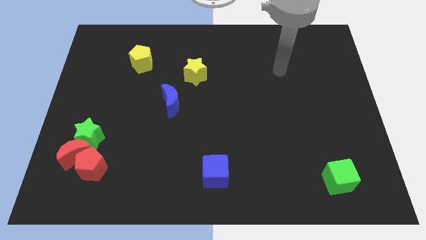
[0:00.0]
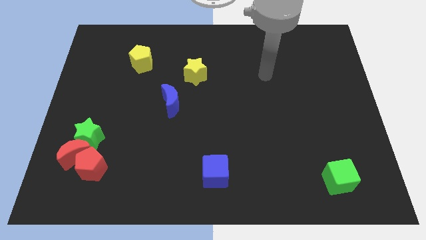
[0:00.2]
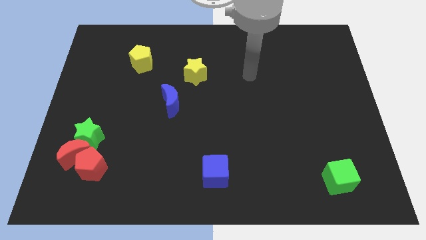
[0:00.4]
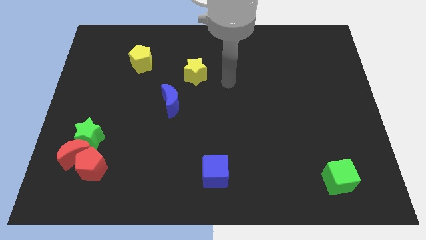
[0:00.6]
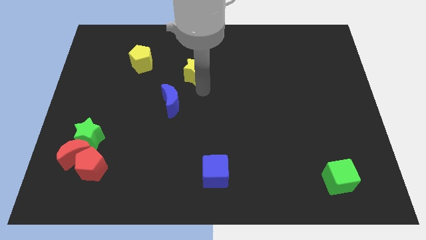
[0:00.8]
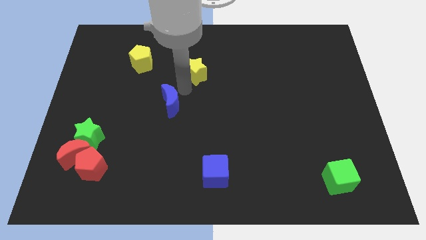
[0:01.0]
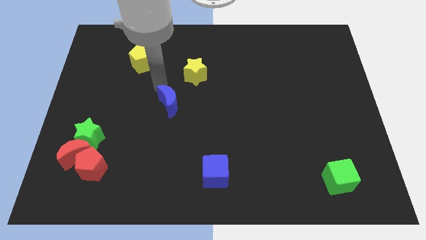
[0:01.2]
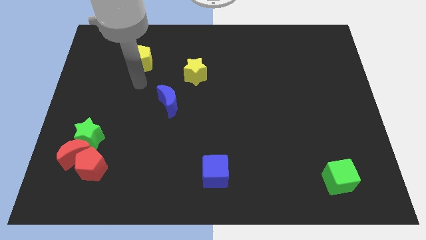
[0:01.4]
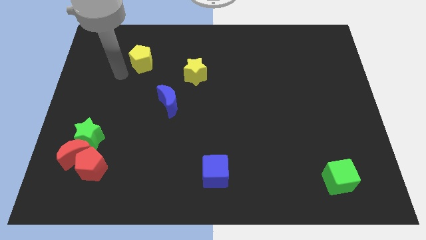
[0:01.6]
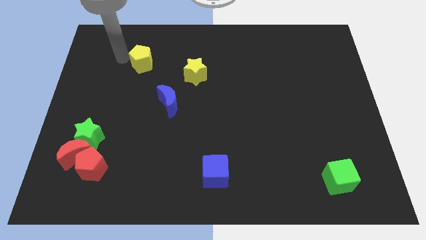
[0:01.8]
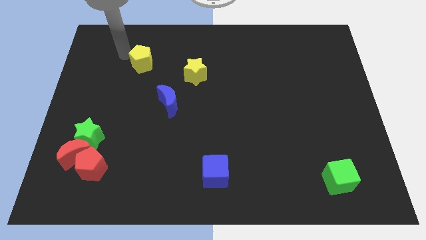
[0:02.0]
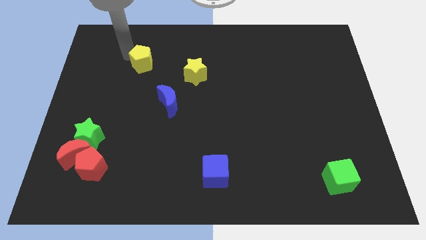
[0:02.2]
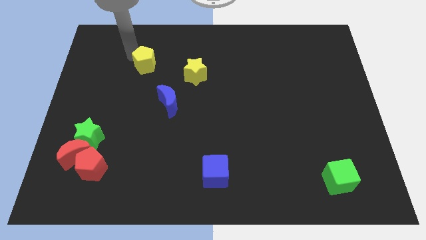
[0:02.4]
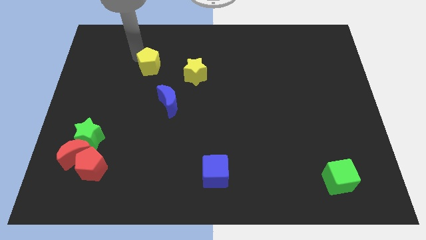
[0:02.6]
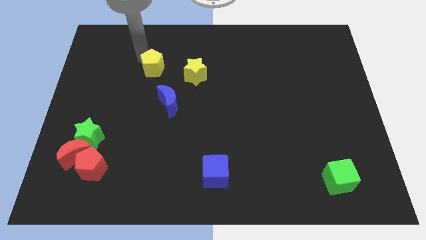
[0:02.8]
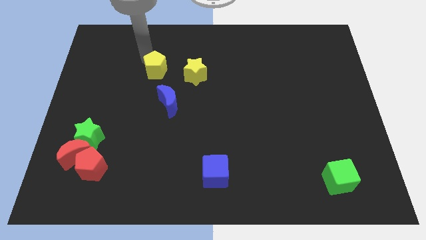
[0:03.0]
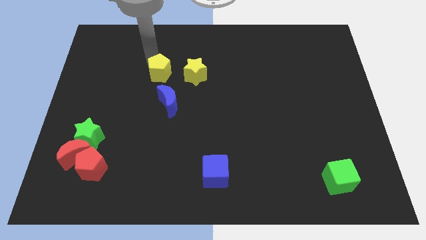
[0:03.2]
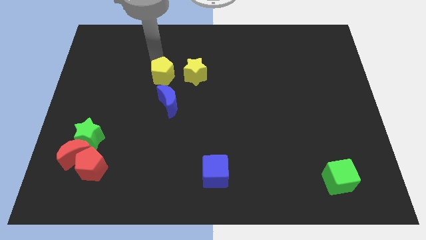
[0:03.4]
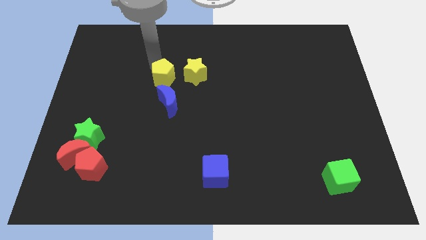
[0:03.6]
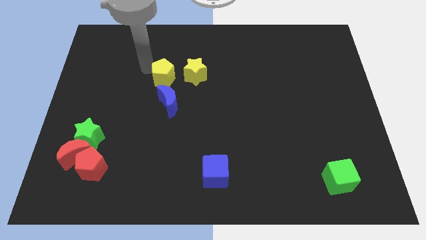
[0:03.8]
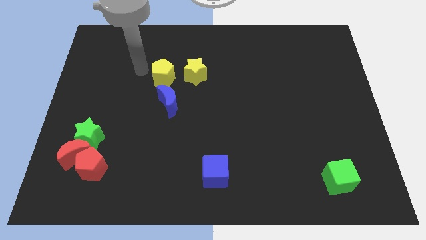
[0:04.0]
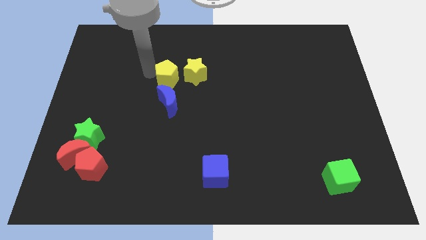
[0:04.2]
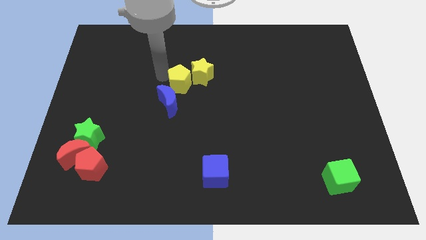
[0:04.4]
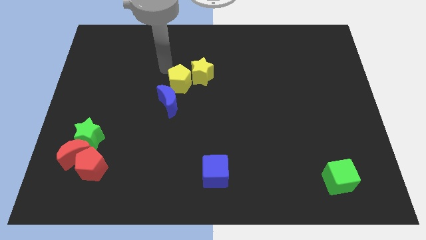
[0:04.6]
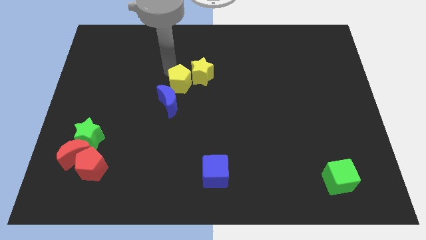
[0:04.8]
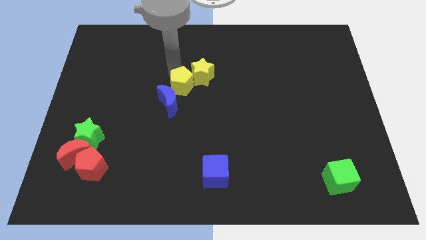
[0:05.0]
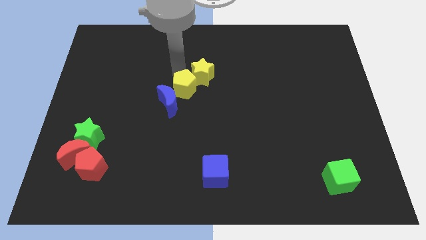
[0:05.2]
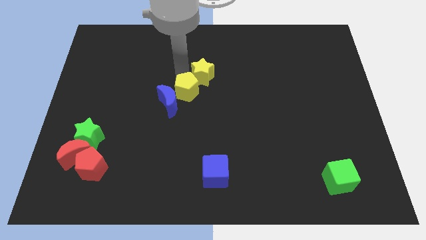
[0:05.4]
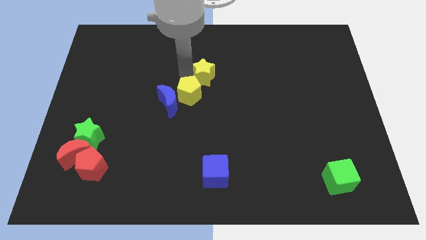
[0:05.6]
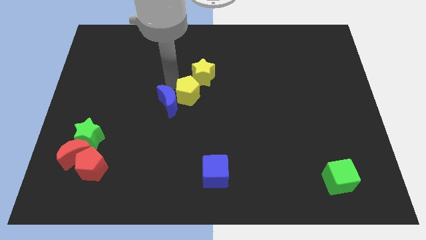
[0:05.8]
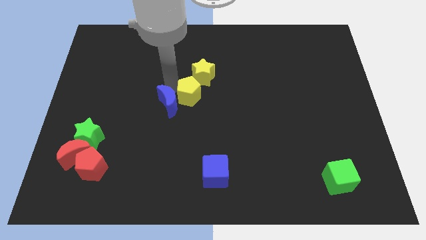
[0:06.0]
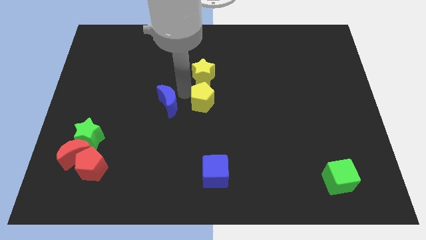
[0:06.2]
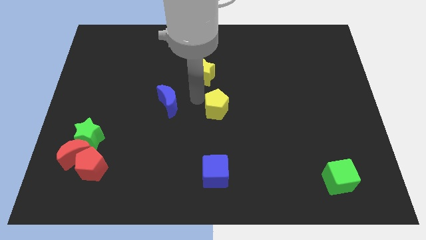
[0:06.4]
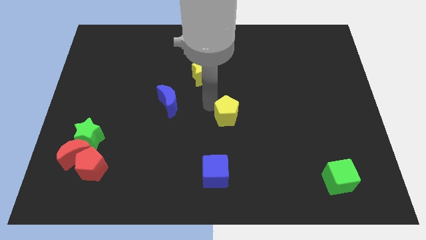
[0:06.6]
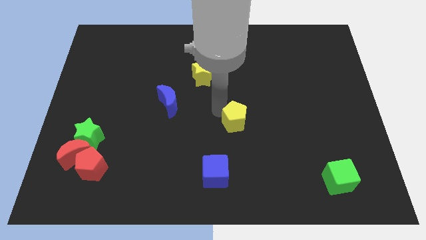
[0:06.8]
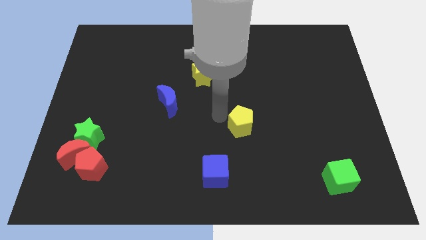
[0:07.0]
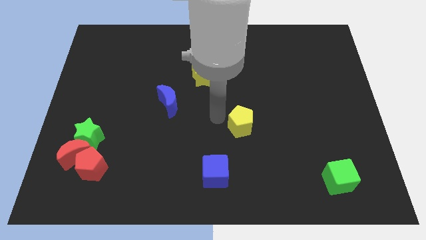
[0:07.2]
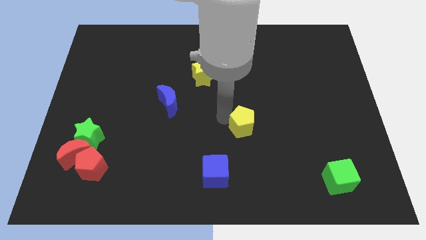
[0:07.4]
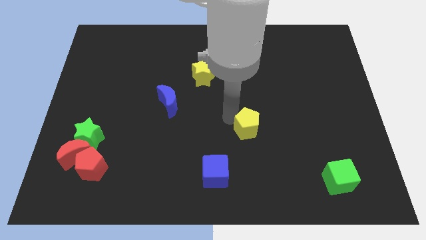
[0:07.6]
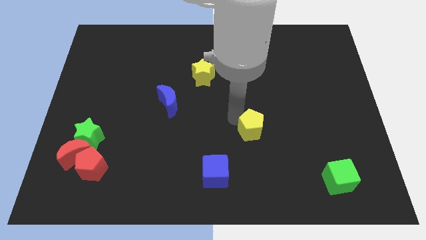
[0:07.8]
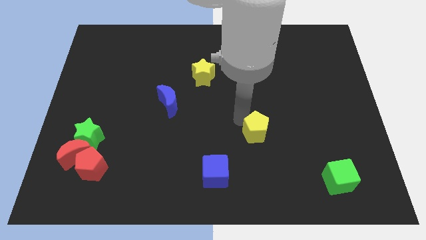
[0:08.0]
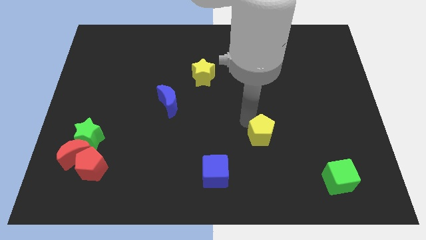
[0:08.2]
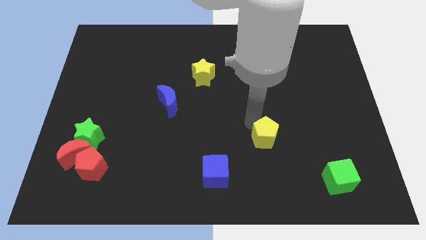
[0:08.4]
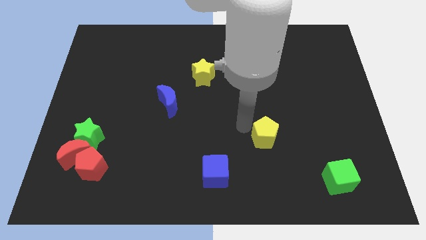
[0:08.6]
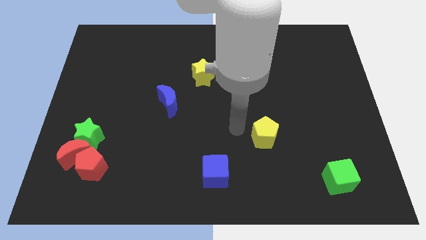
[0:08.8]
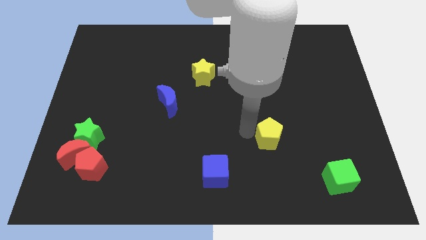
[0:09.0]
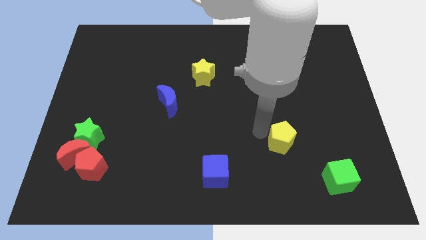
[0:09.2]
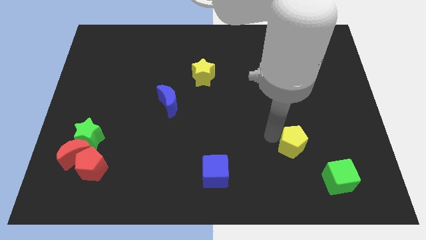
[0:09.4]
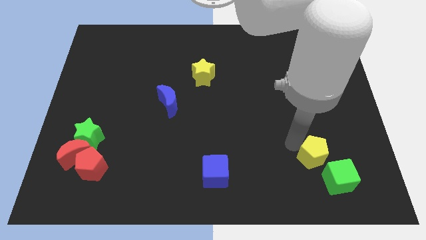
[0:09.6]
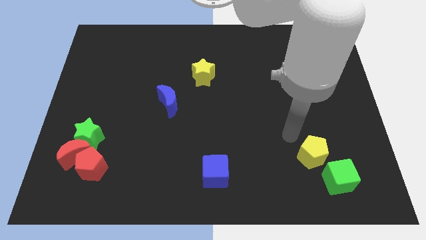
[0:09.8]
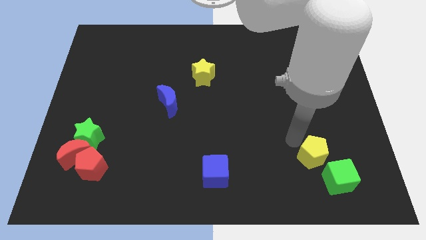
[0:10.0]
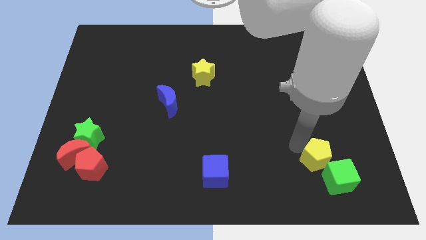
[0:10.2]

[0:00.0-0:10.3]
move the yellow pentagon to the green cube

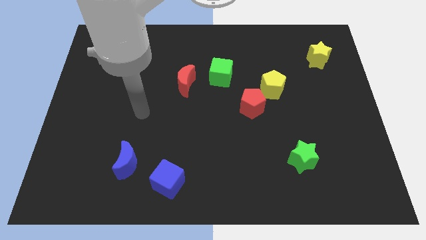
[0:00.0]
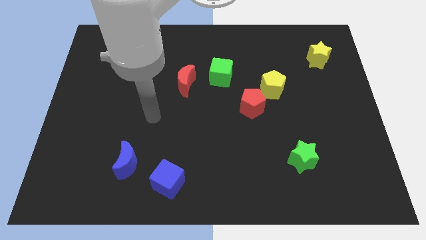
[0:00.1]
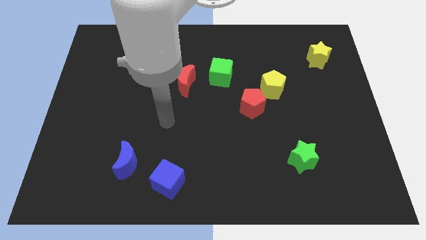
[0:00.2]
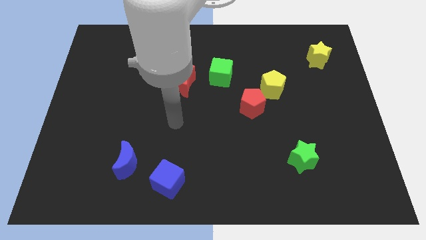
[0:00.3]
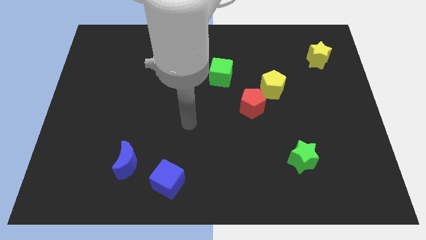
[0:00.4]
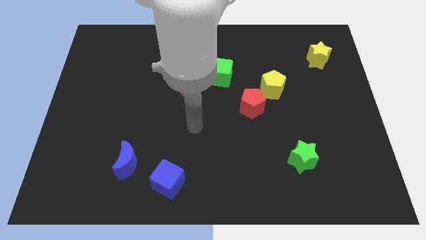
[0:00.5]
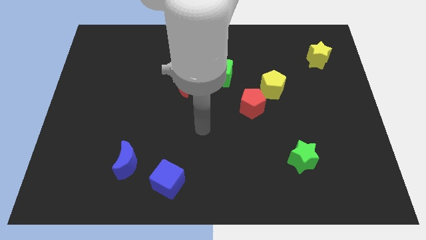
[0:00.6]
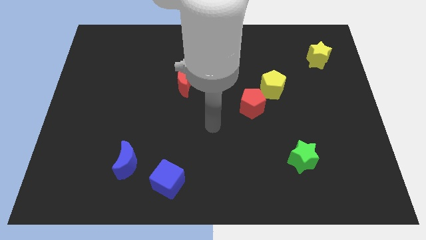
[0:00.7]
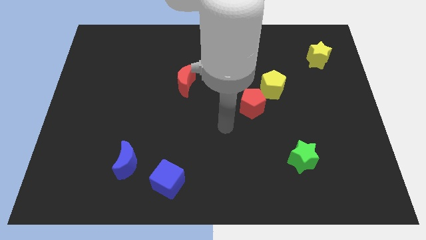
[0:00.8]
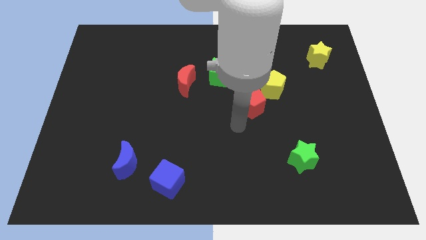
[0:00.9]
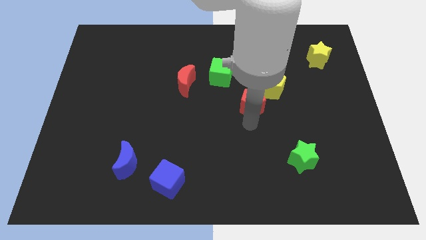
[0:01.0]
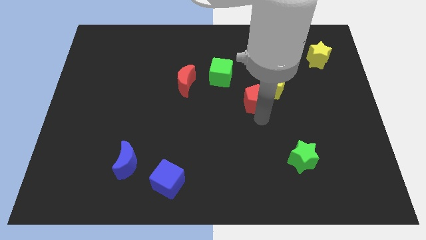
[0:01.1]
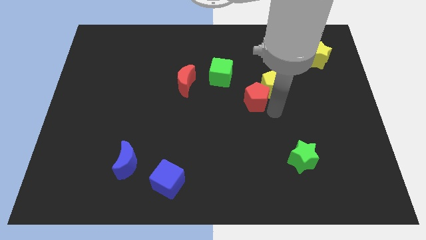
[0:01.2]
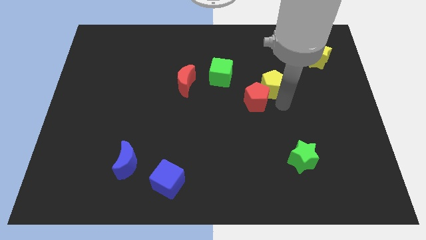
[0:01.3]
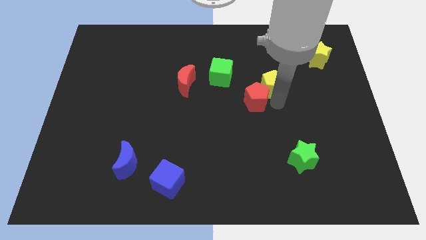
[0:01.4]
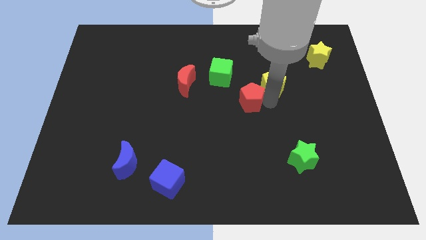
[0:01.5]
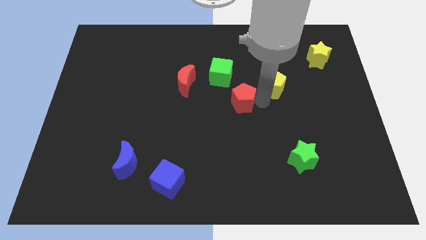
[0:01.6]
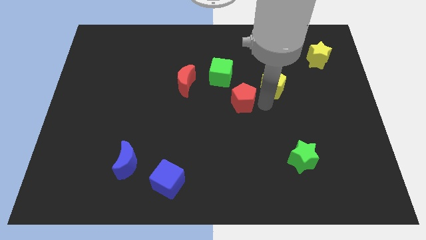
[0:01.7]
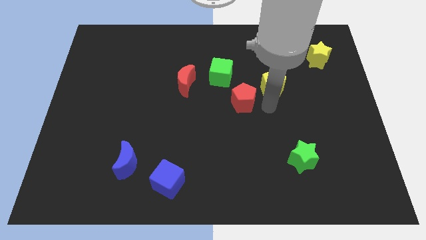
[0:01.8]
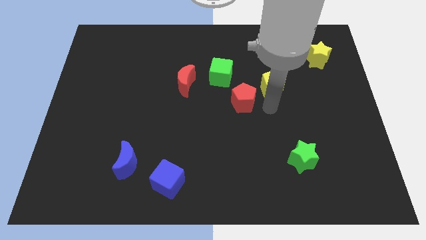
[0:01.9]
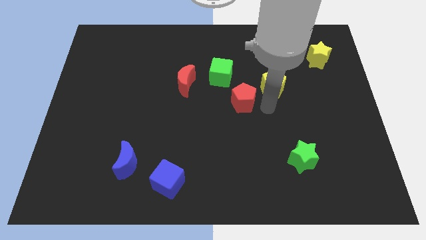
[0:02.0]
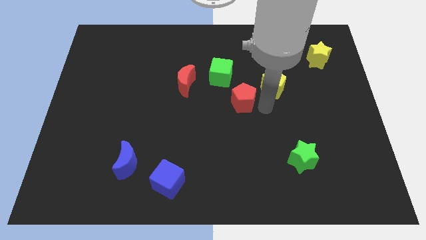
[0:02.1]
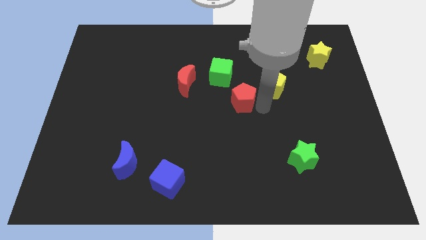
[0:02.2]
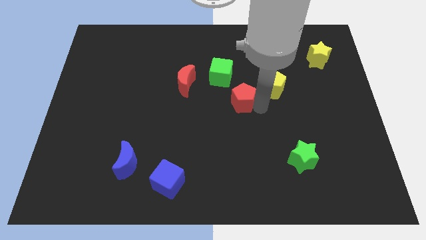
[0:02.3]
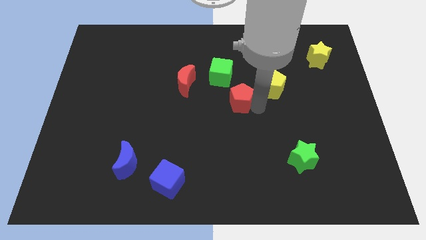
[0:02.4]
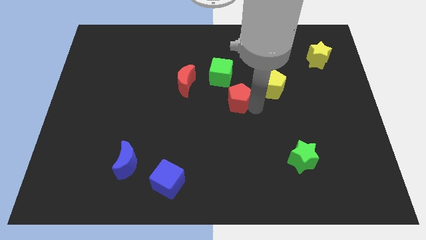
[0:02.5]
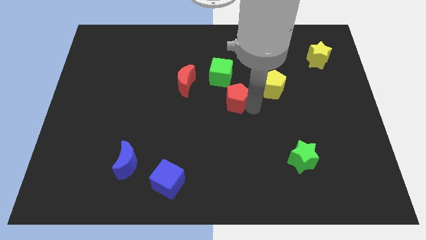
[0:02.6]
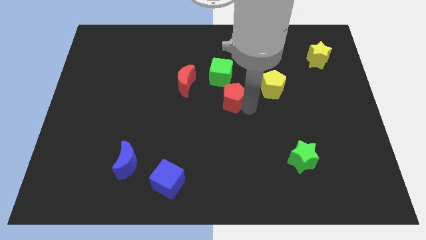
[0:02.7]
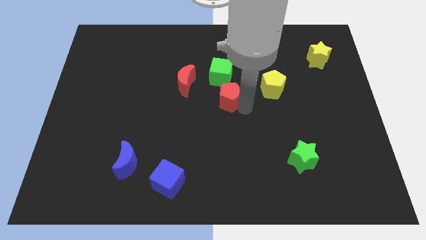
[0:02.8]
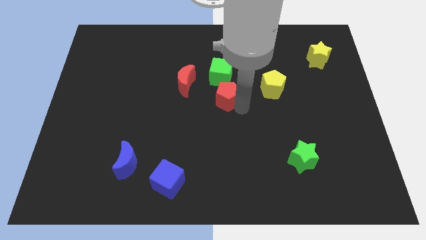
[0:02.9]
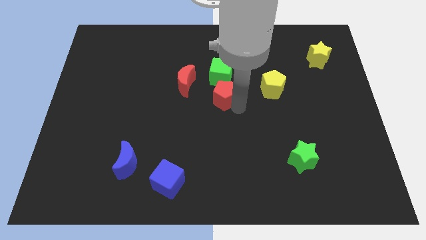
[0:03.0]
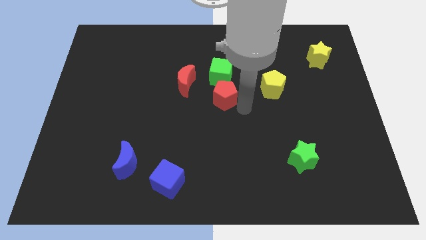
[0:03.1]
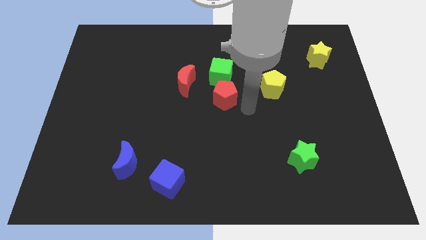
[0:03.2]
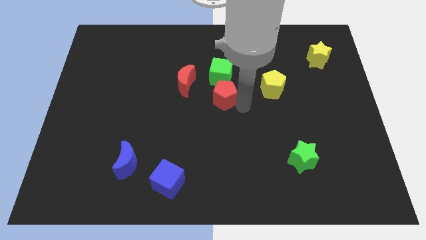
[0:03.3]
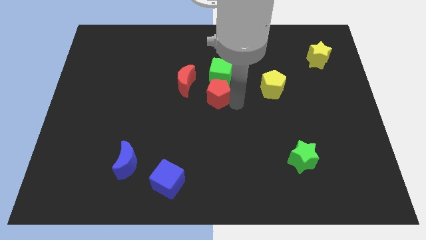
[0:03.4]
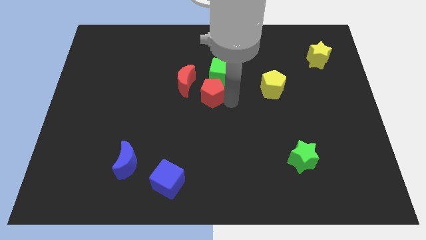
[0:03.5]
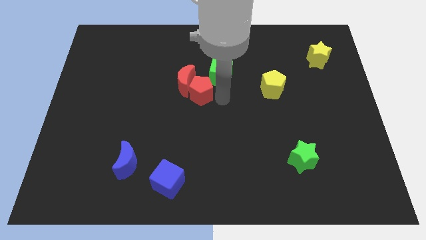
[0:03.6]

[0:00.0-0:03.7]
move the red pentagon towards the red moon
